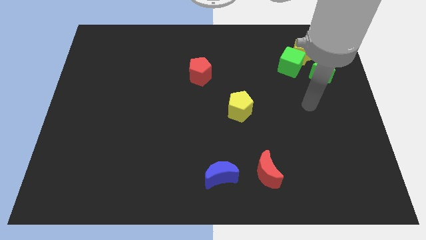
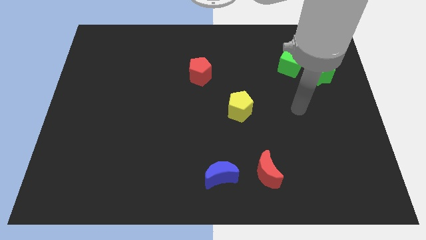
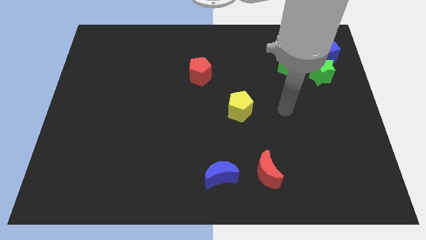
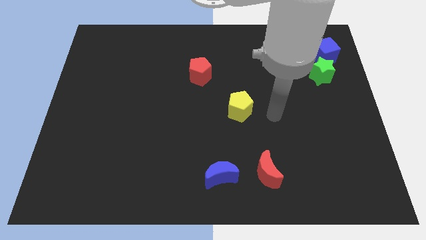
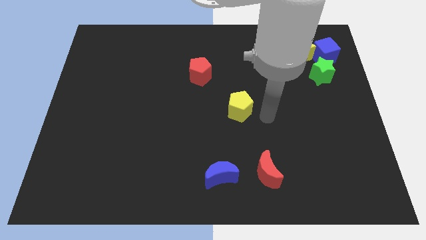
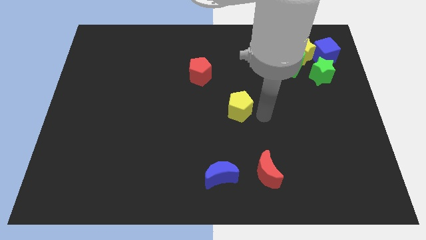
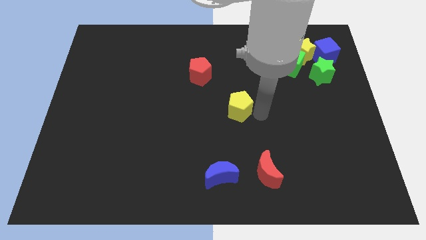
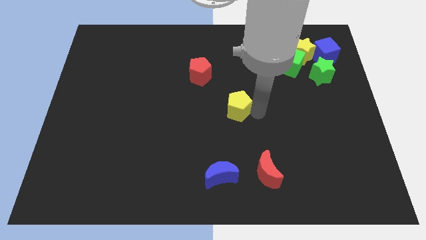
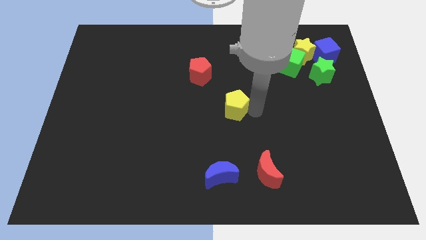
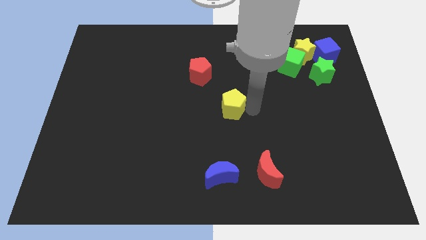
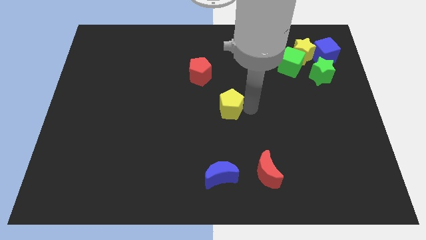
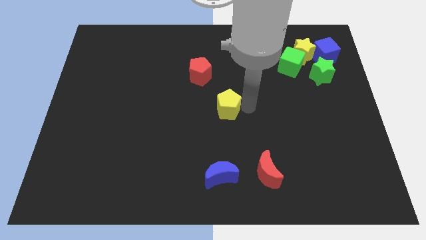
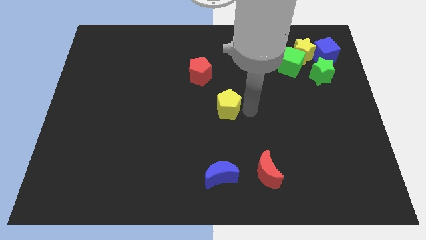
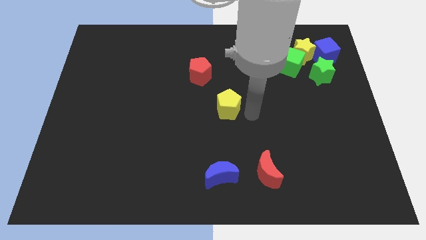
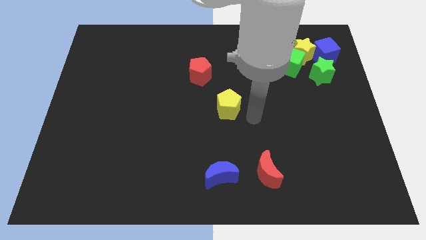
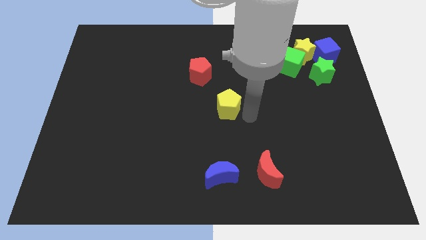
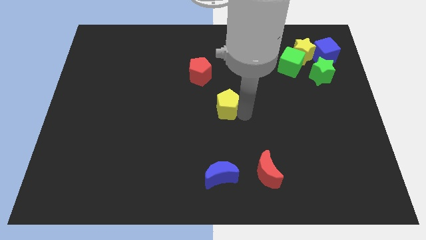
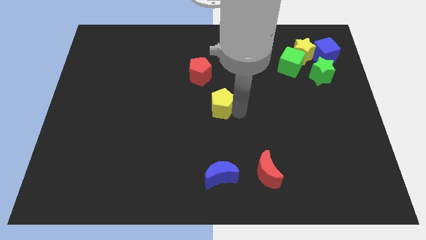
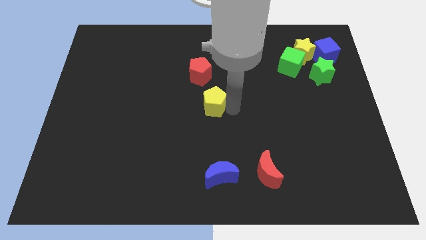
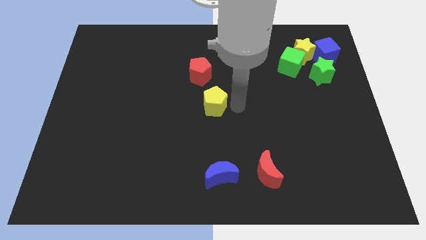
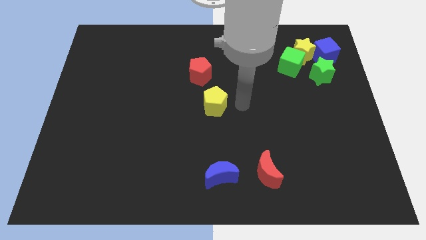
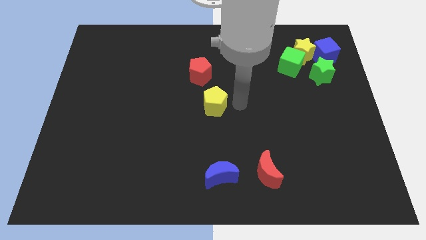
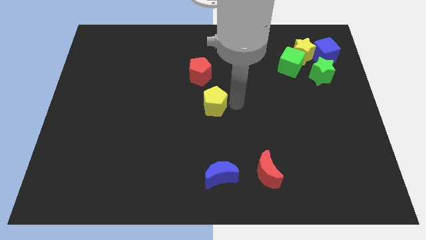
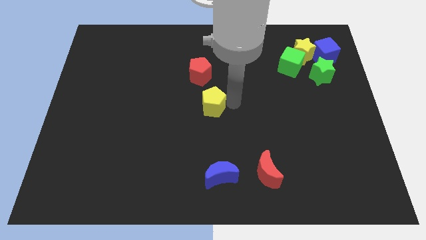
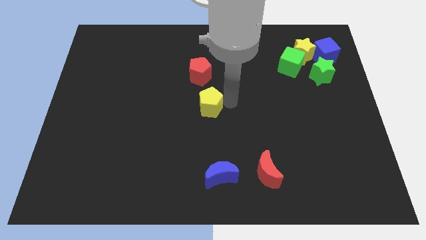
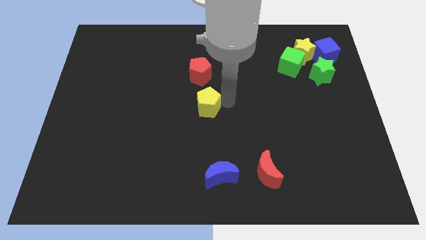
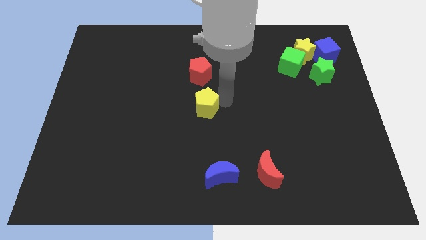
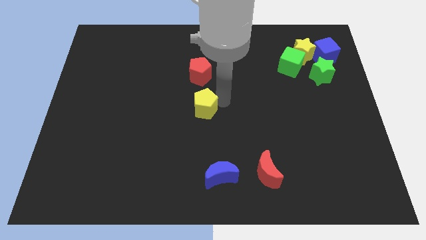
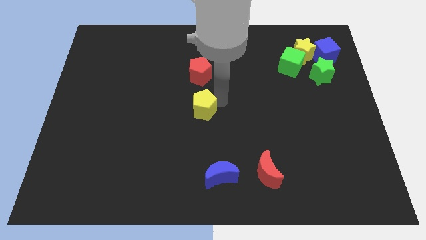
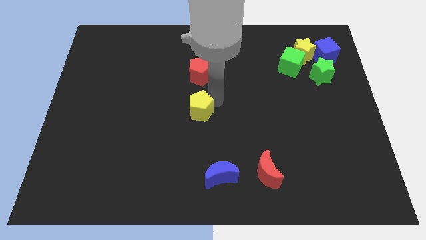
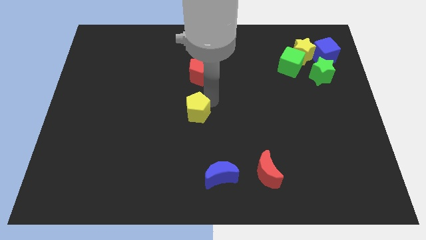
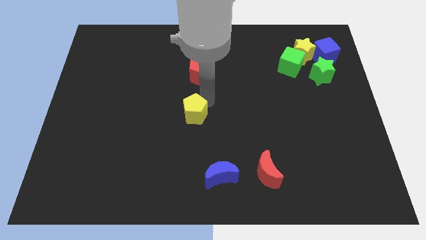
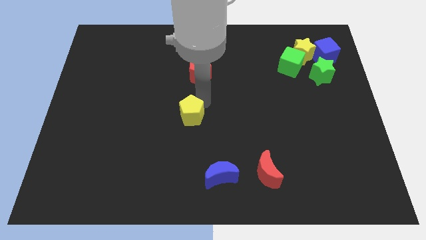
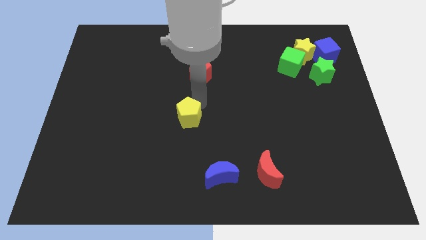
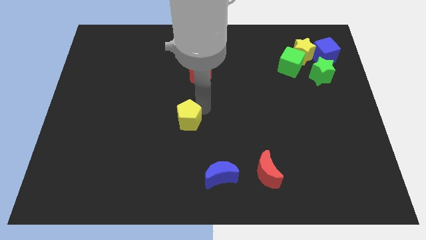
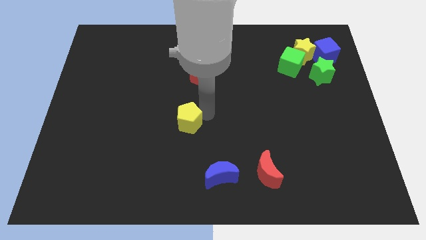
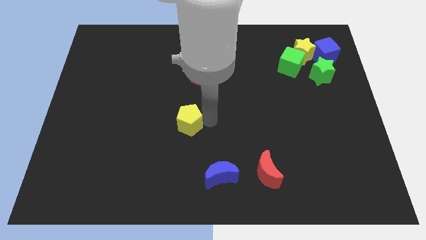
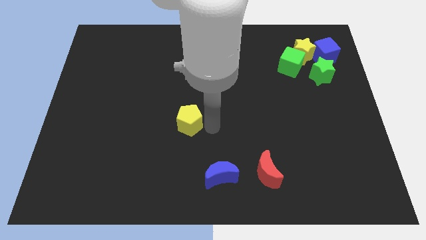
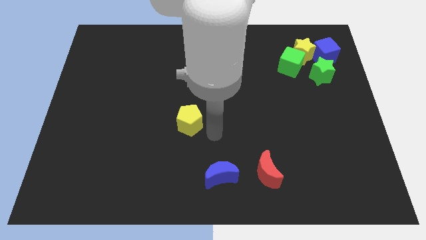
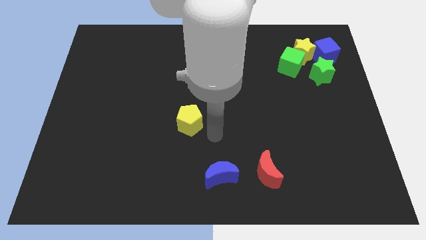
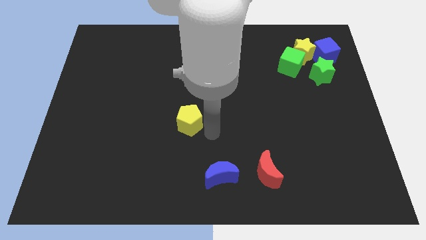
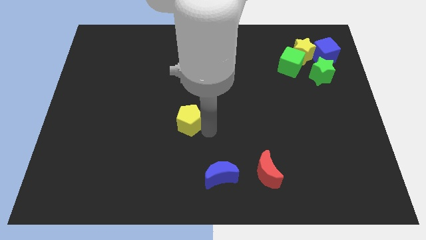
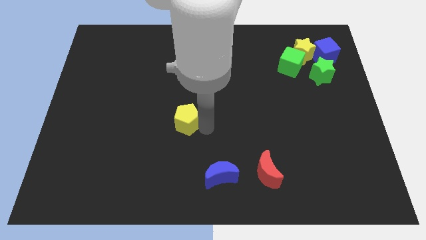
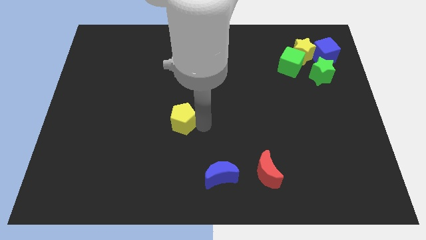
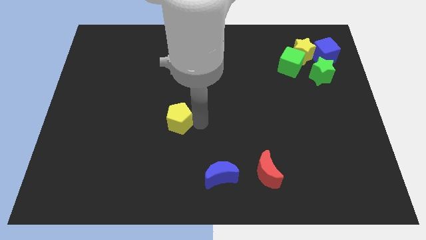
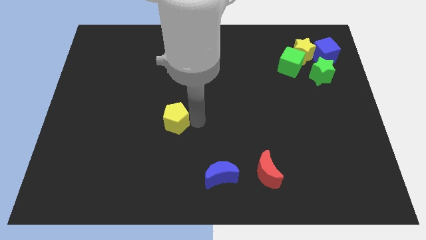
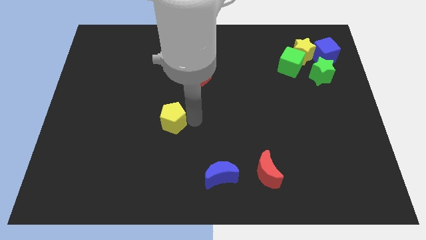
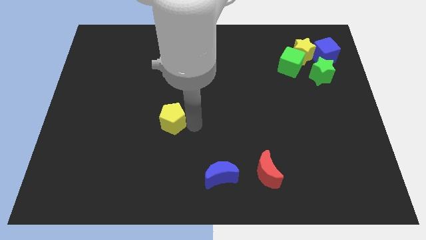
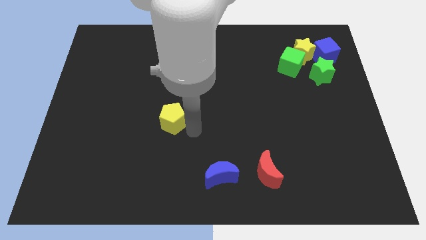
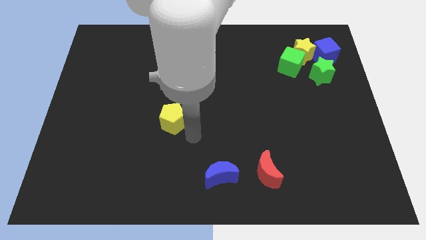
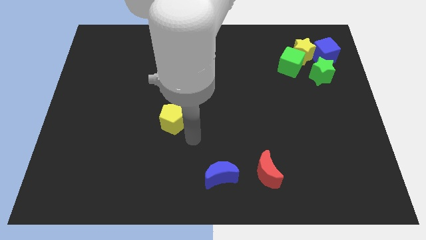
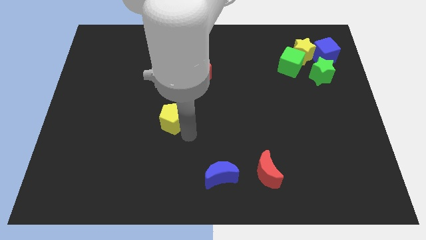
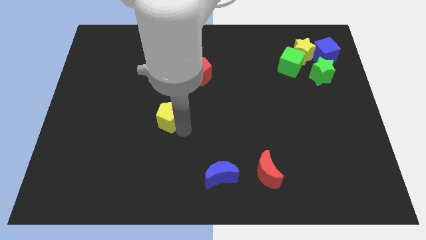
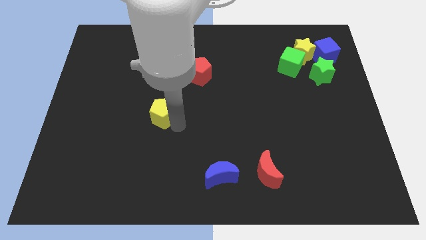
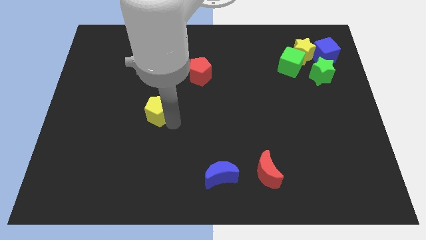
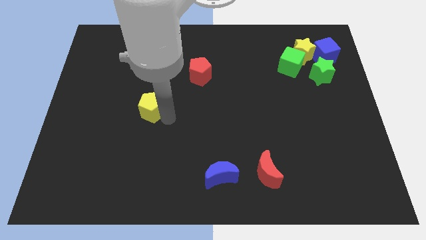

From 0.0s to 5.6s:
move the yellow pentagon left

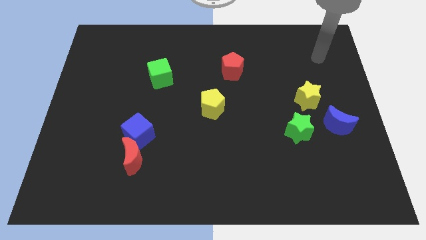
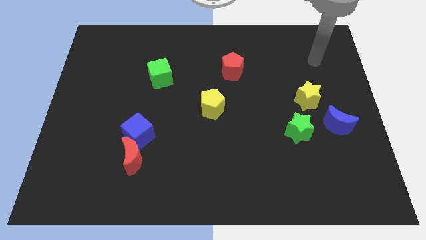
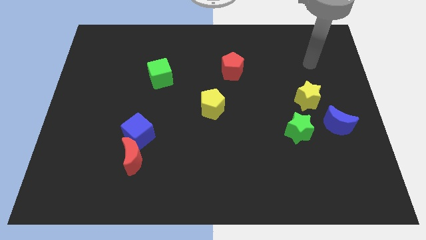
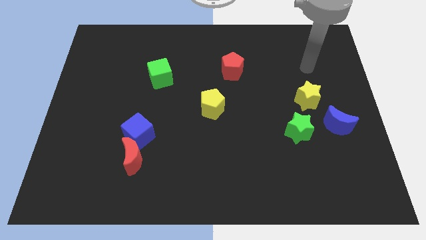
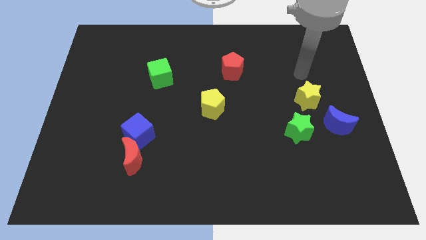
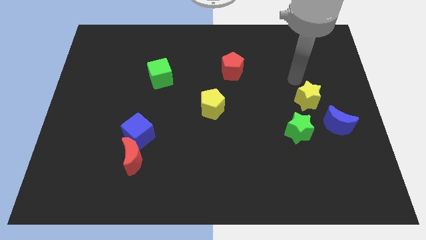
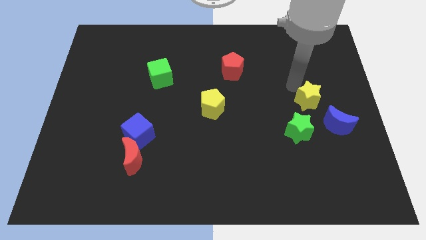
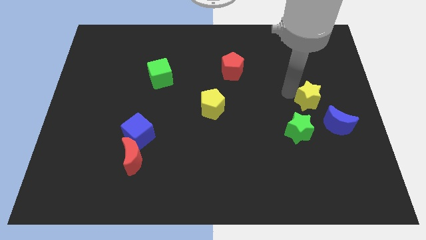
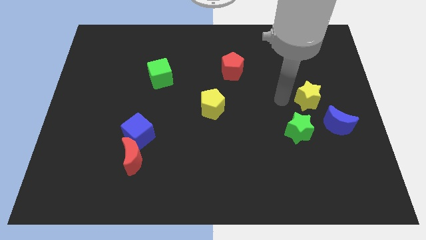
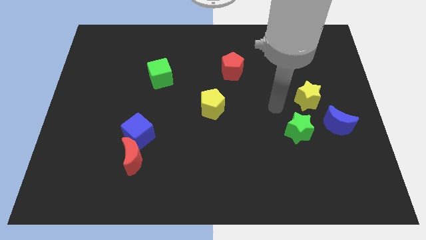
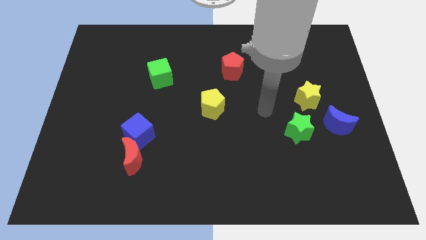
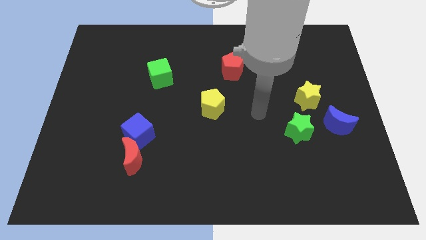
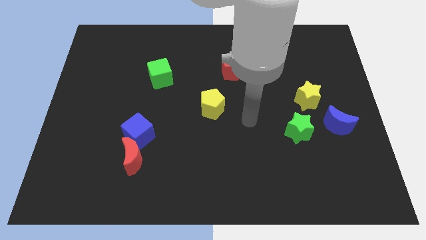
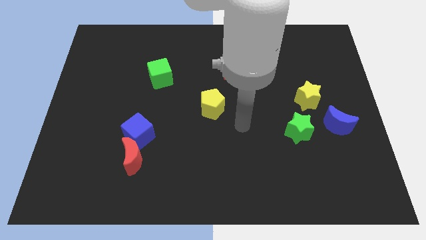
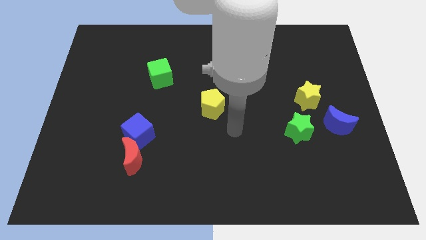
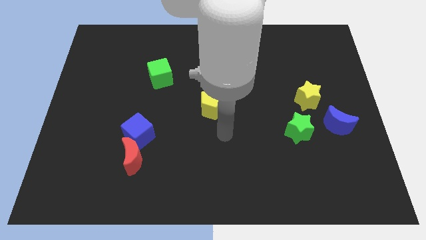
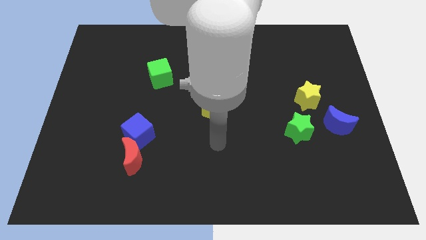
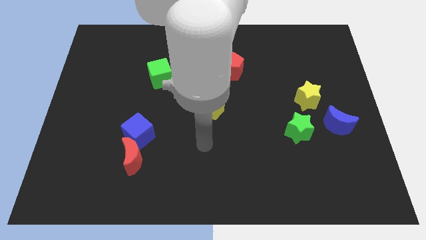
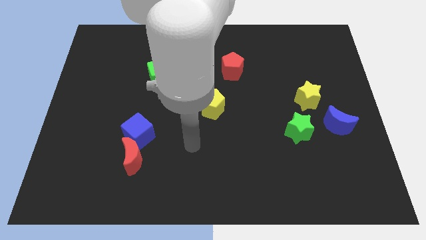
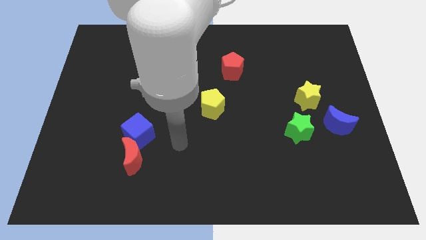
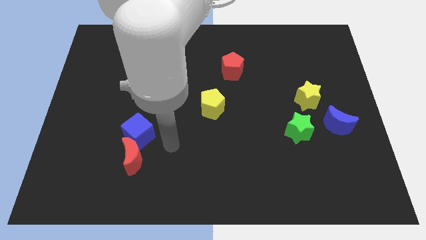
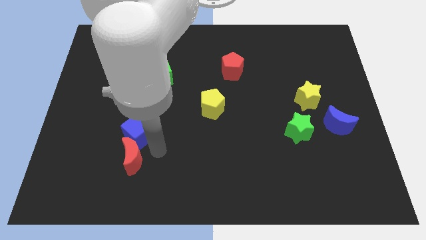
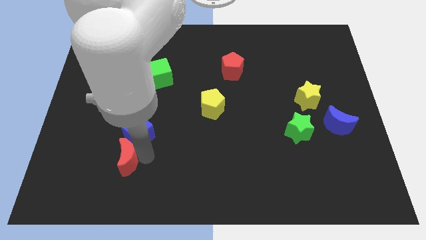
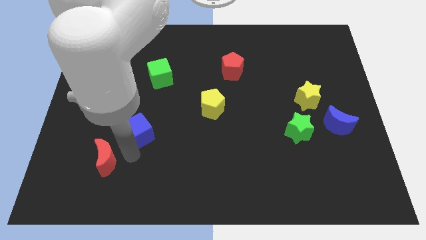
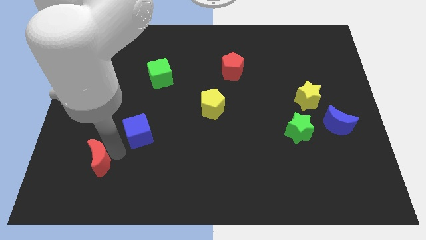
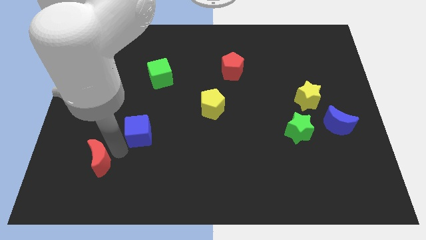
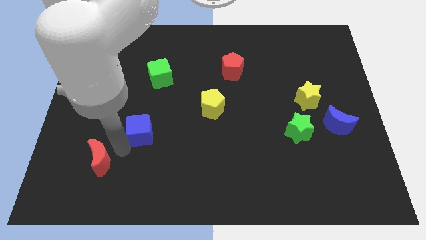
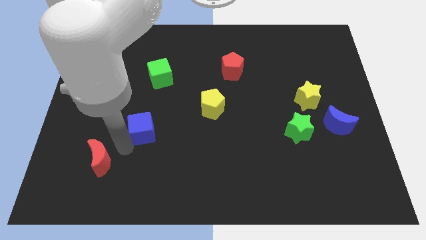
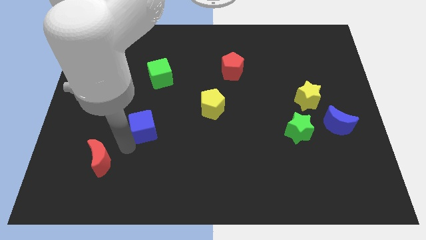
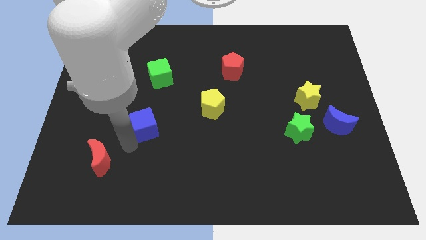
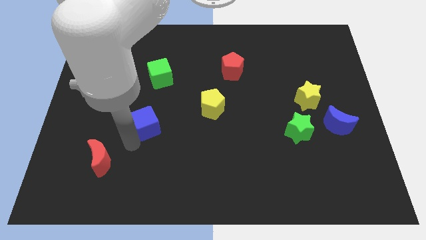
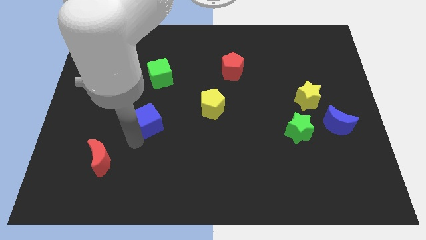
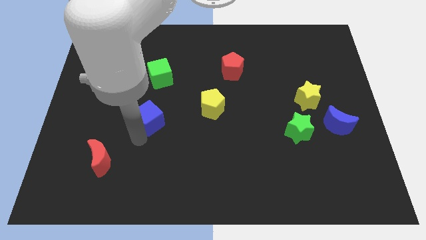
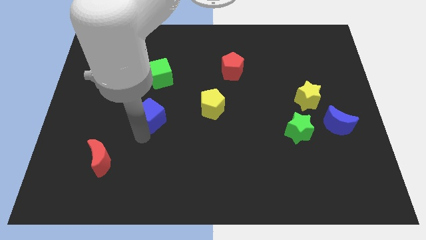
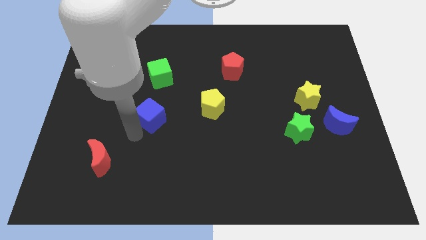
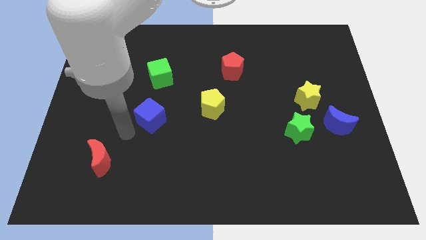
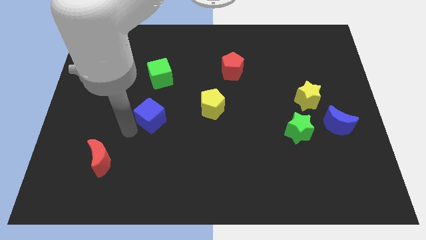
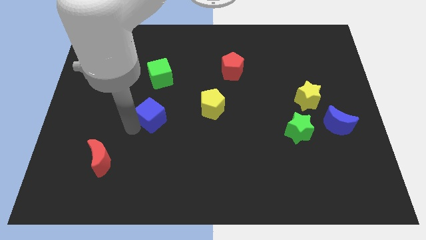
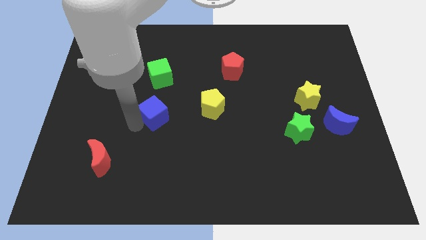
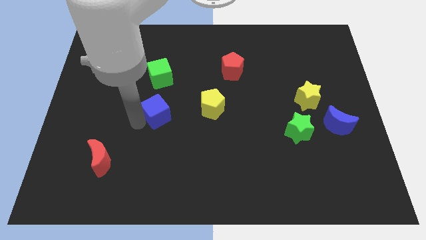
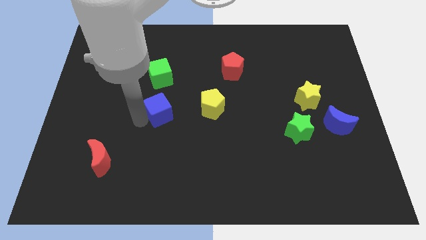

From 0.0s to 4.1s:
move the blue cube up and to the right diagonally somewhat
